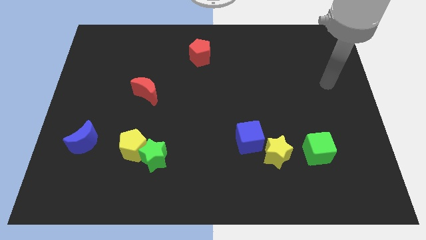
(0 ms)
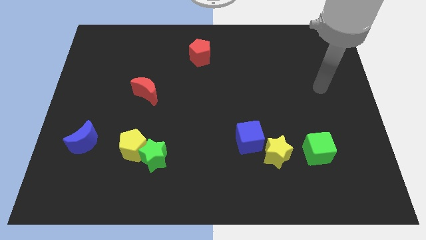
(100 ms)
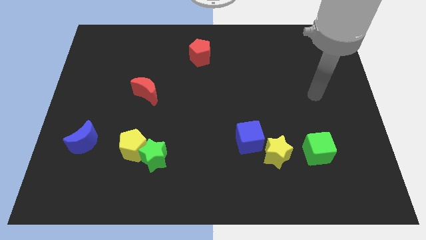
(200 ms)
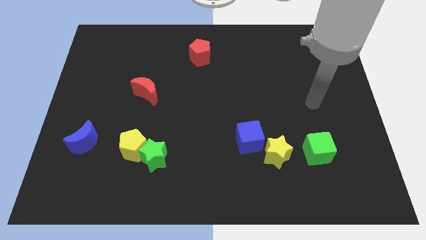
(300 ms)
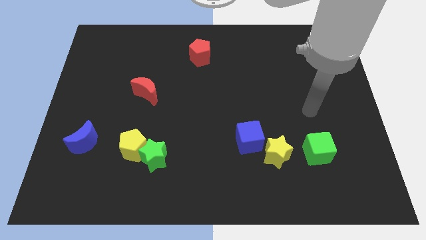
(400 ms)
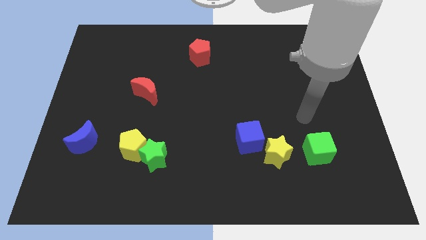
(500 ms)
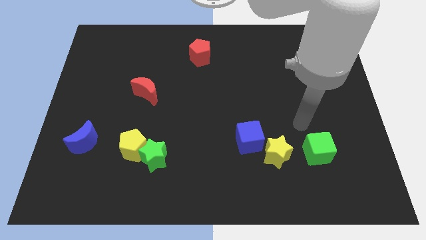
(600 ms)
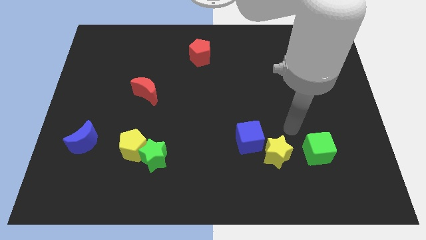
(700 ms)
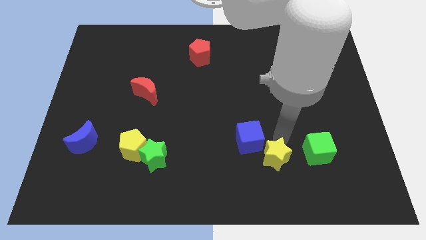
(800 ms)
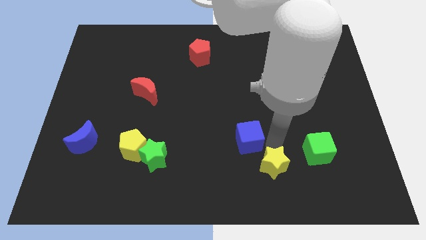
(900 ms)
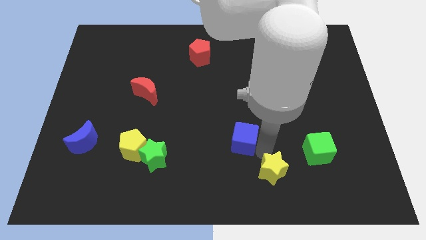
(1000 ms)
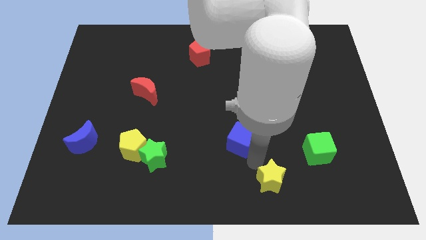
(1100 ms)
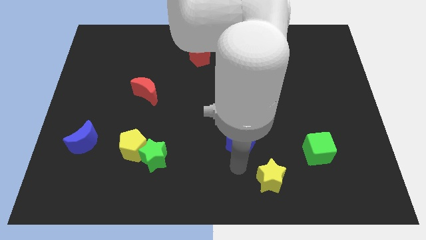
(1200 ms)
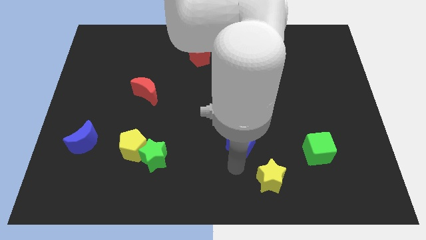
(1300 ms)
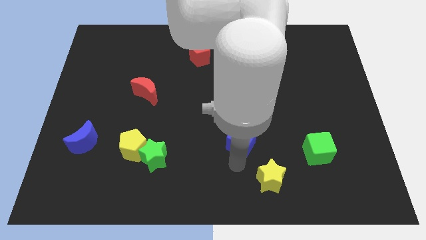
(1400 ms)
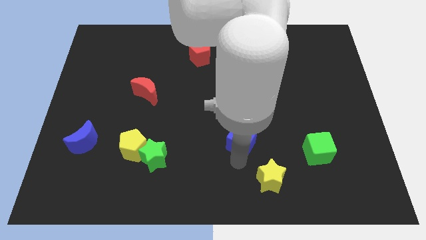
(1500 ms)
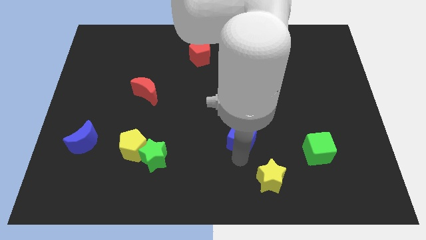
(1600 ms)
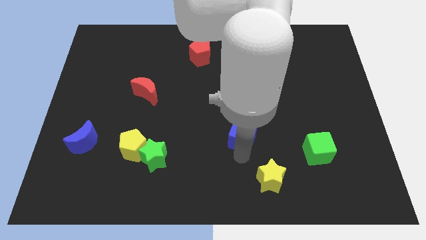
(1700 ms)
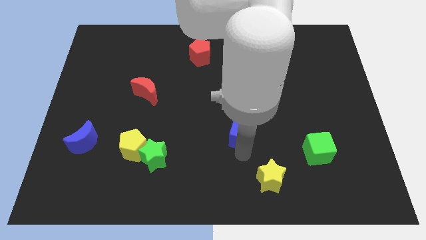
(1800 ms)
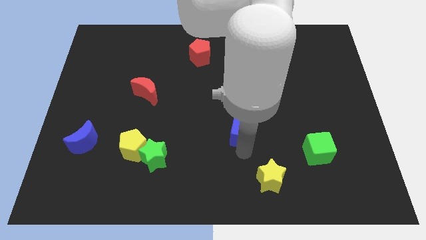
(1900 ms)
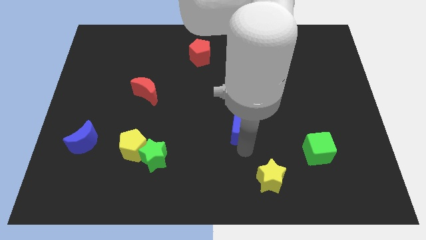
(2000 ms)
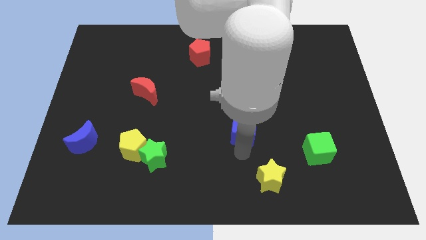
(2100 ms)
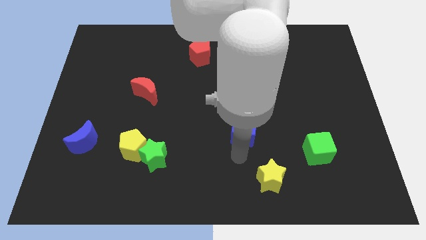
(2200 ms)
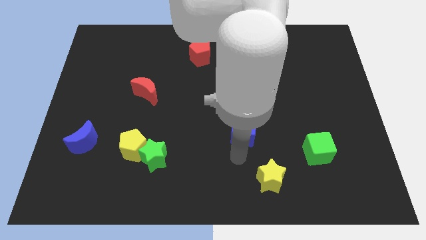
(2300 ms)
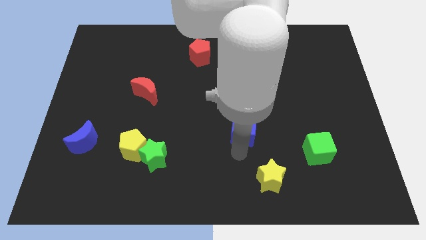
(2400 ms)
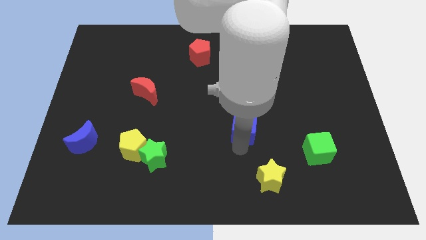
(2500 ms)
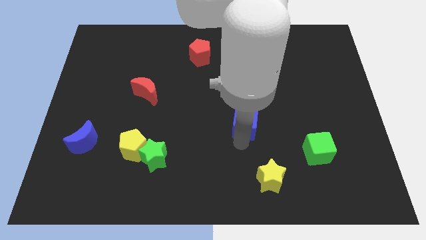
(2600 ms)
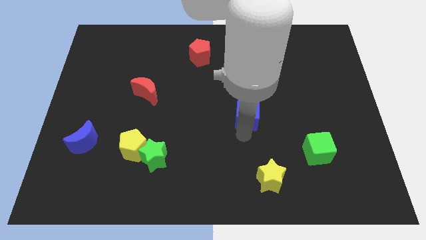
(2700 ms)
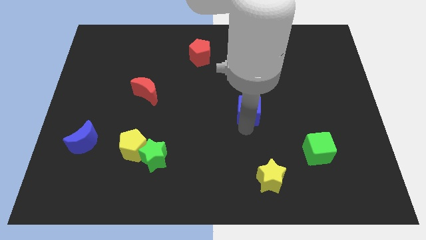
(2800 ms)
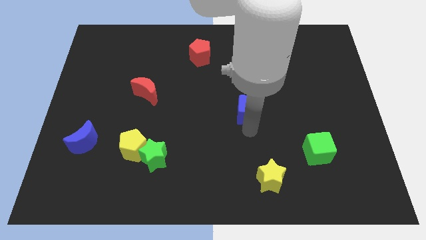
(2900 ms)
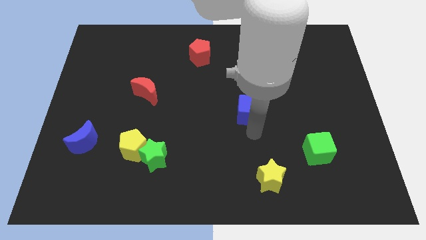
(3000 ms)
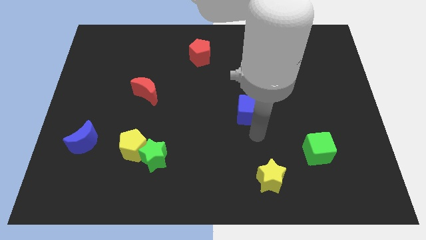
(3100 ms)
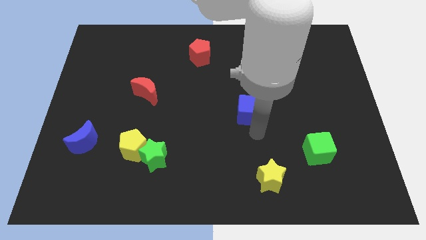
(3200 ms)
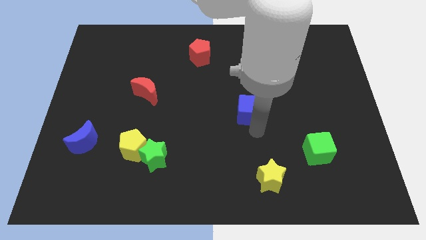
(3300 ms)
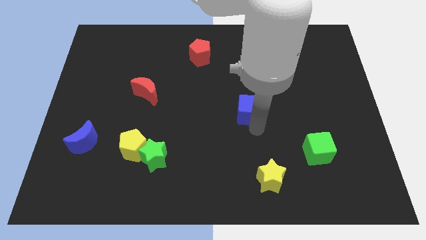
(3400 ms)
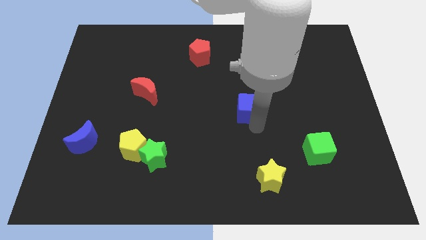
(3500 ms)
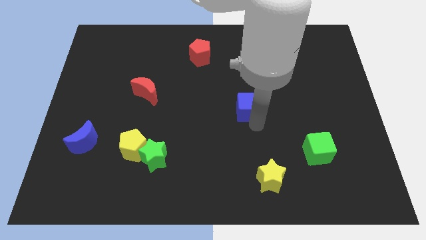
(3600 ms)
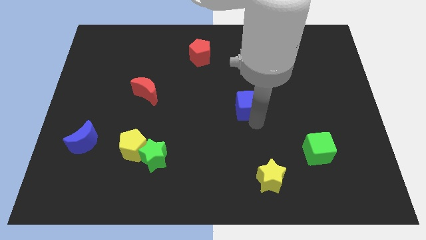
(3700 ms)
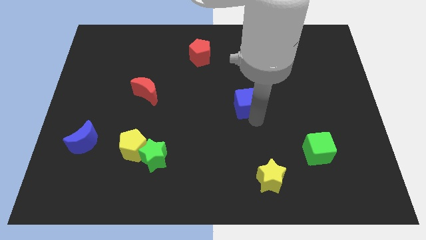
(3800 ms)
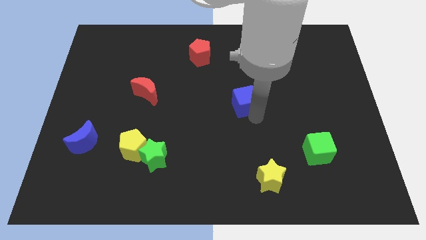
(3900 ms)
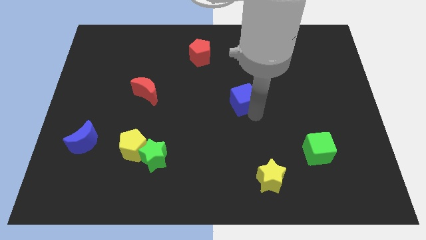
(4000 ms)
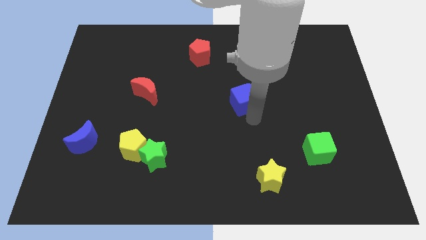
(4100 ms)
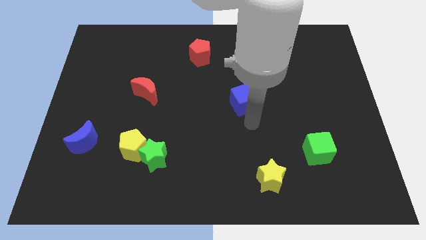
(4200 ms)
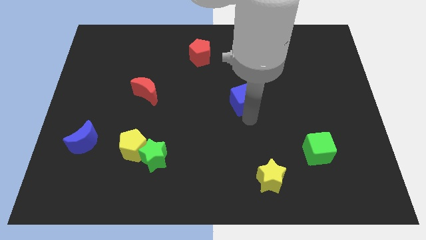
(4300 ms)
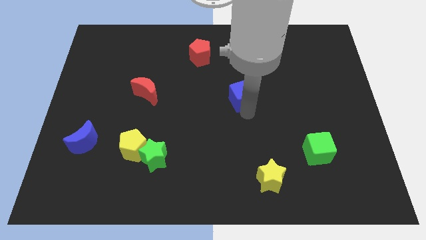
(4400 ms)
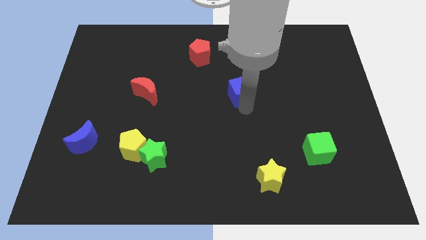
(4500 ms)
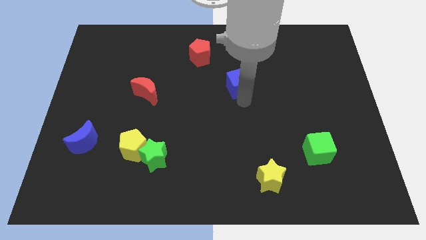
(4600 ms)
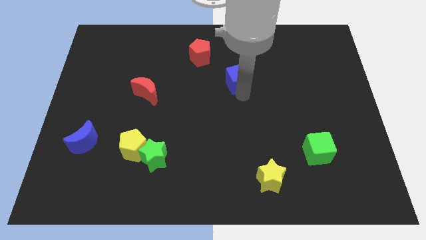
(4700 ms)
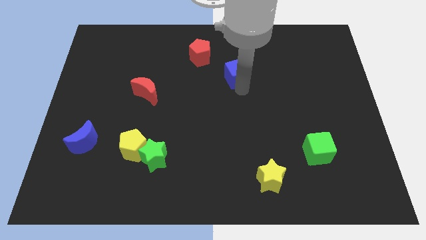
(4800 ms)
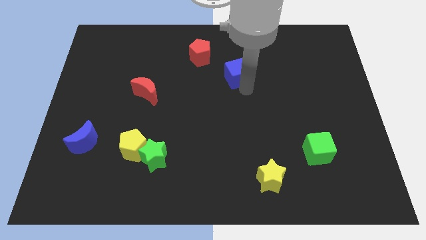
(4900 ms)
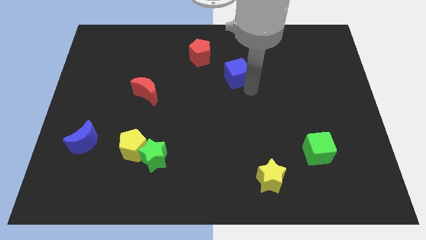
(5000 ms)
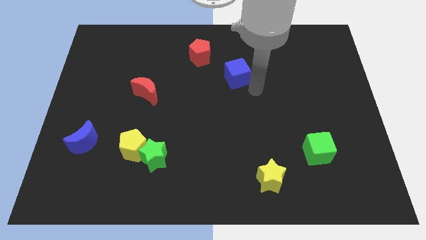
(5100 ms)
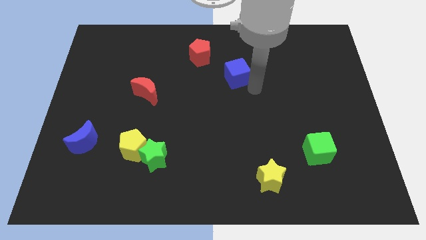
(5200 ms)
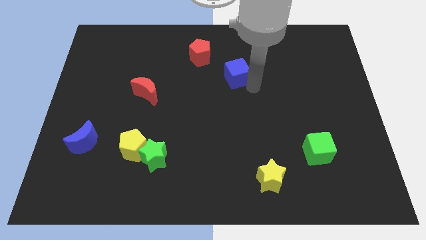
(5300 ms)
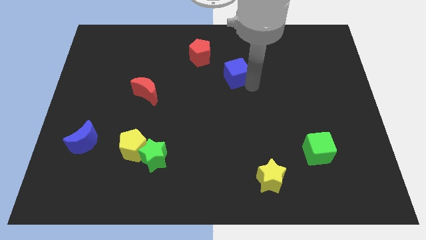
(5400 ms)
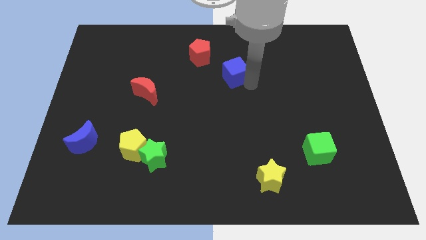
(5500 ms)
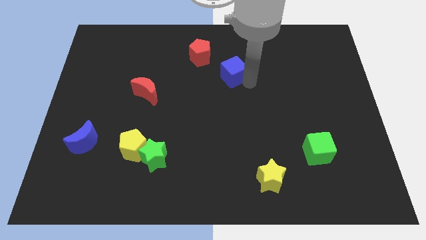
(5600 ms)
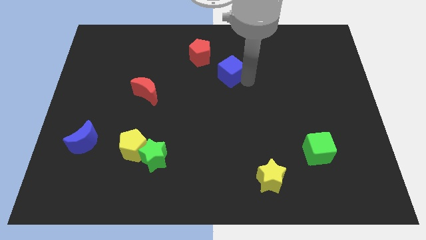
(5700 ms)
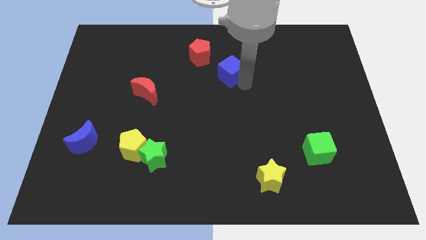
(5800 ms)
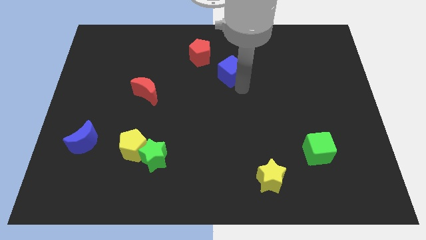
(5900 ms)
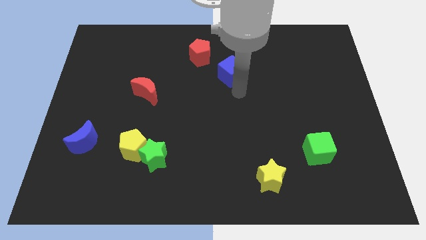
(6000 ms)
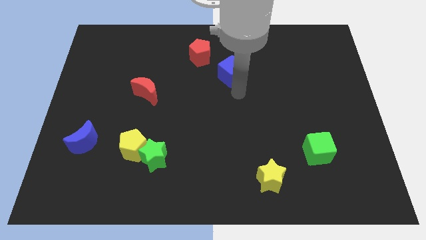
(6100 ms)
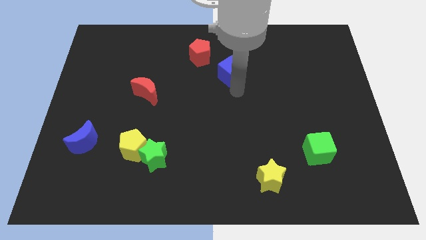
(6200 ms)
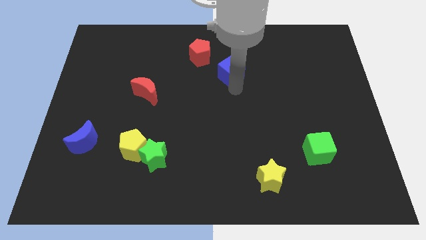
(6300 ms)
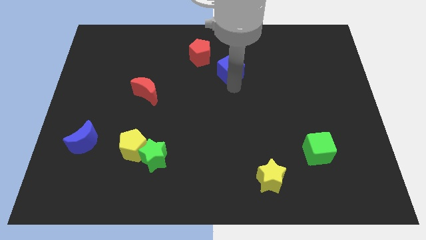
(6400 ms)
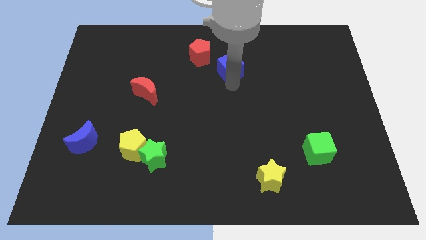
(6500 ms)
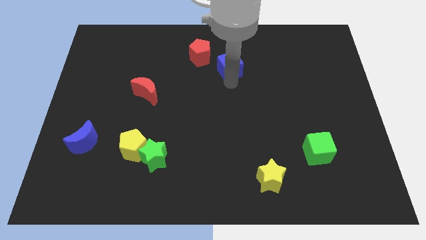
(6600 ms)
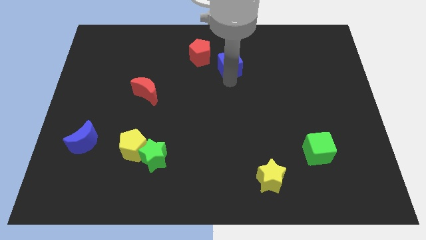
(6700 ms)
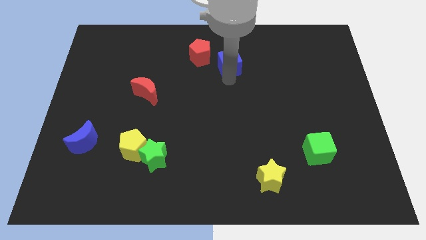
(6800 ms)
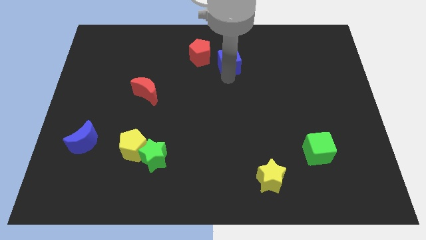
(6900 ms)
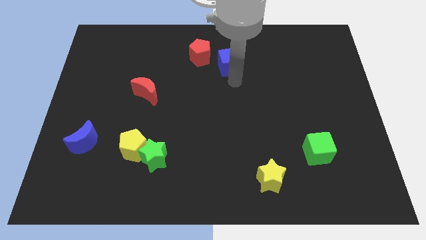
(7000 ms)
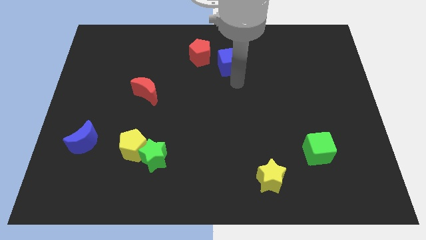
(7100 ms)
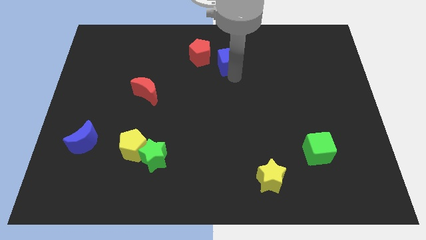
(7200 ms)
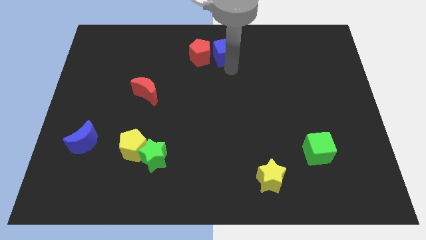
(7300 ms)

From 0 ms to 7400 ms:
put the blue cube to the top side
